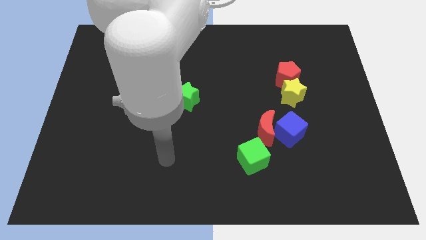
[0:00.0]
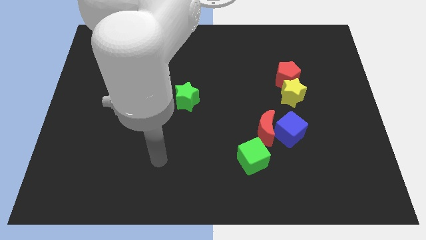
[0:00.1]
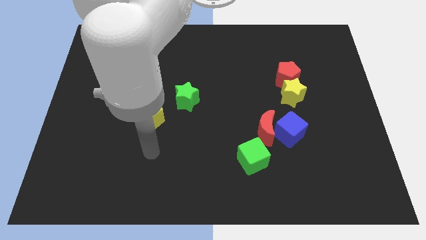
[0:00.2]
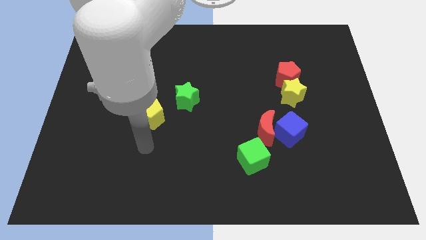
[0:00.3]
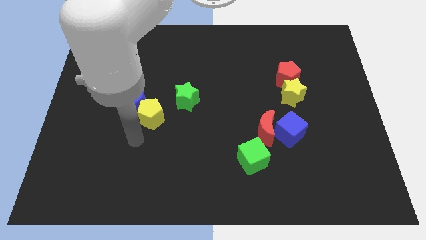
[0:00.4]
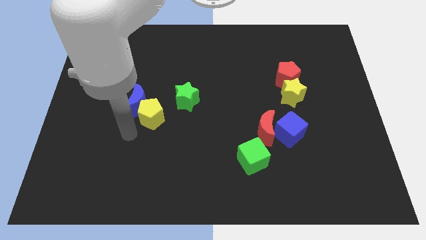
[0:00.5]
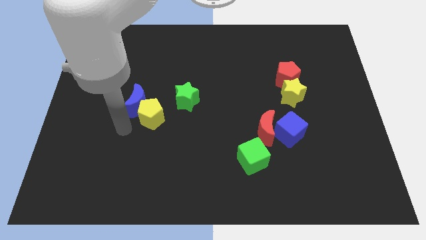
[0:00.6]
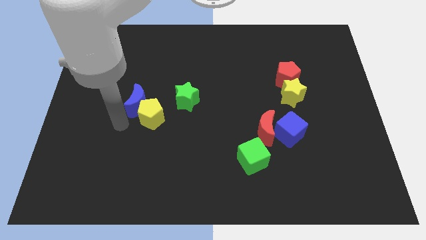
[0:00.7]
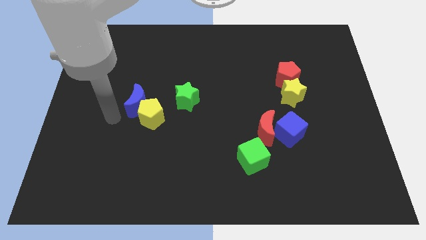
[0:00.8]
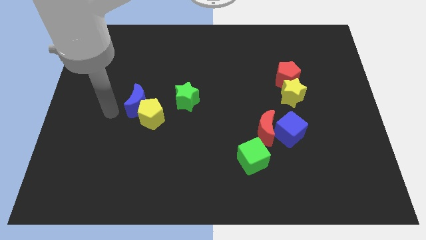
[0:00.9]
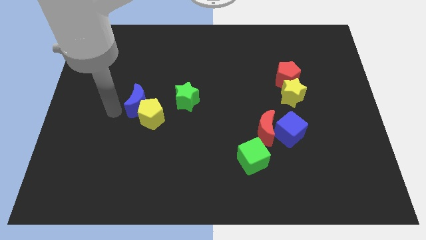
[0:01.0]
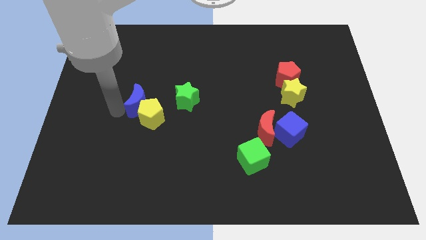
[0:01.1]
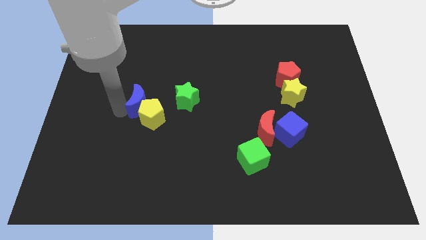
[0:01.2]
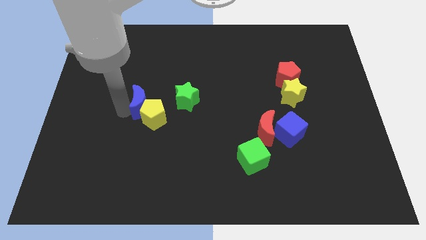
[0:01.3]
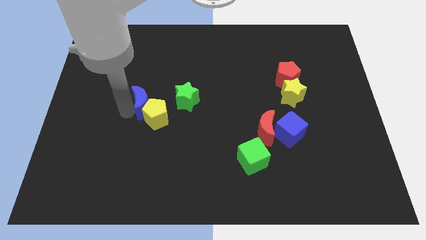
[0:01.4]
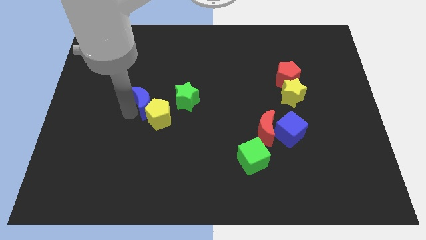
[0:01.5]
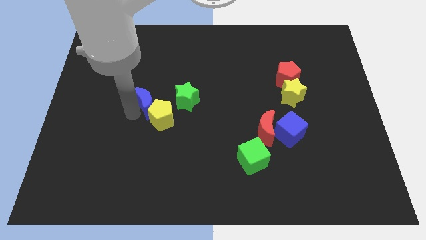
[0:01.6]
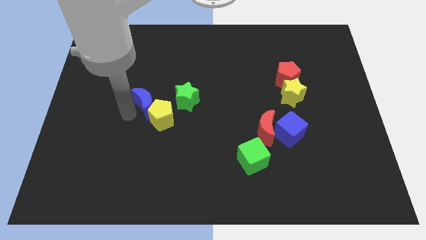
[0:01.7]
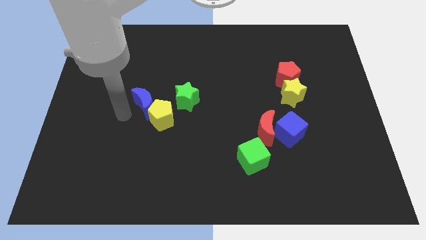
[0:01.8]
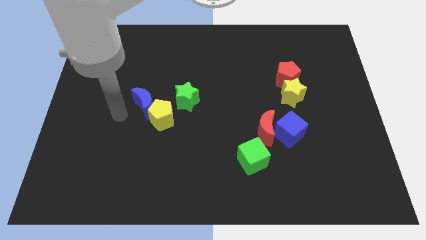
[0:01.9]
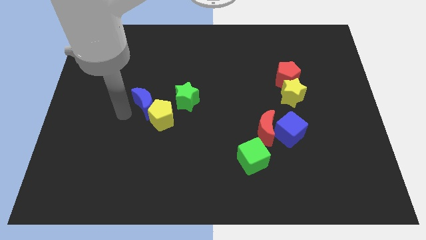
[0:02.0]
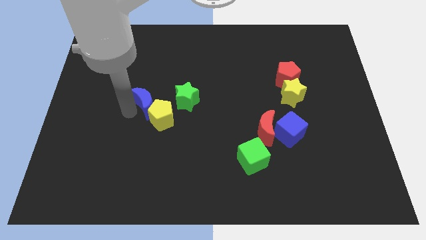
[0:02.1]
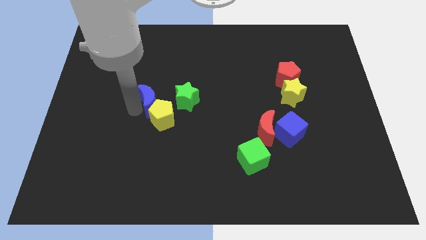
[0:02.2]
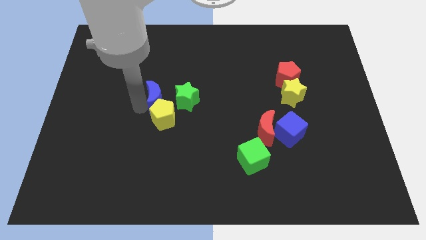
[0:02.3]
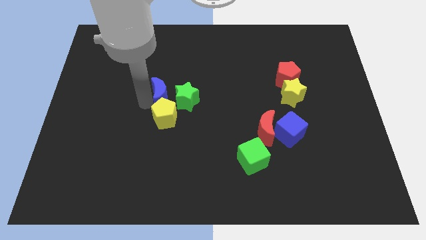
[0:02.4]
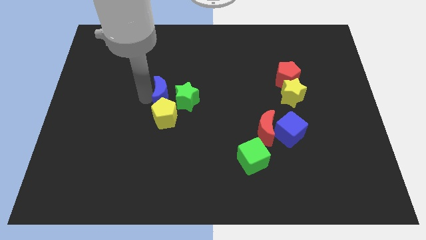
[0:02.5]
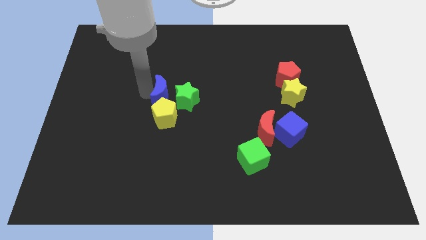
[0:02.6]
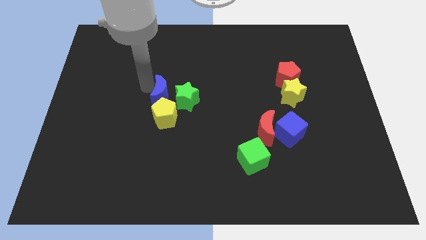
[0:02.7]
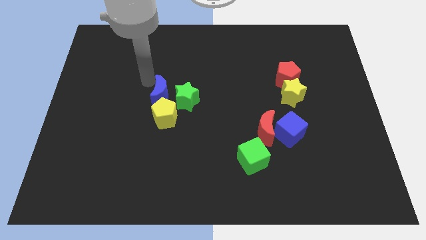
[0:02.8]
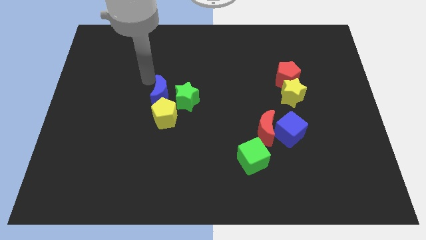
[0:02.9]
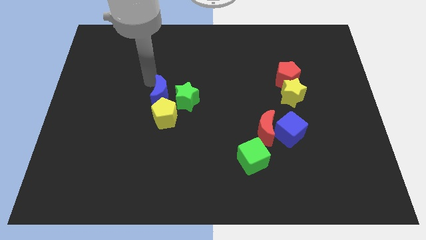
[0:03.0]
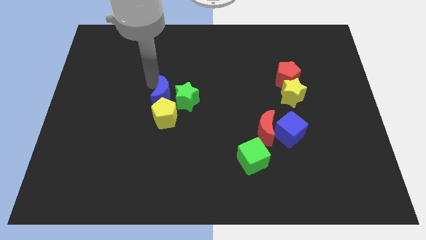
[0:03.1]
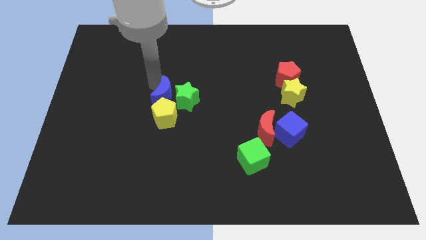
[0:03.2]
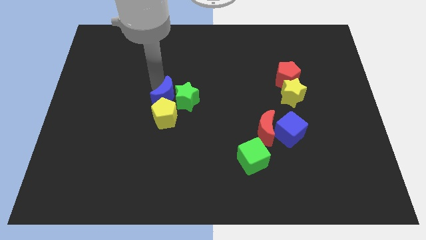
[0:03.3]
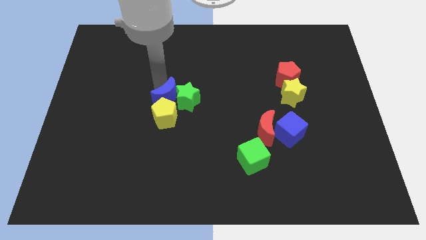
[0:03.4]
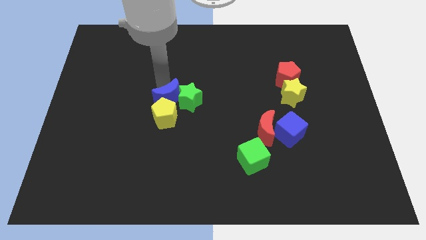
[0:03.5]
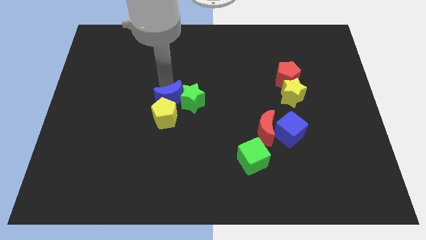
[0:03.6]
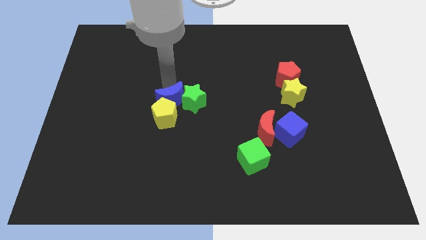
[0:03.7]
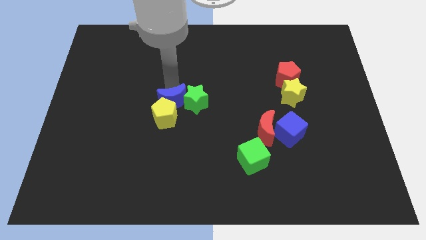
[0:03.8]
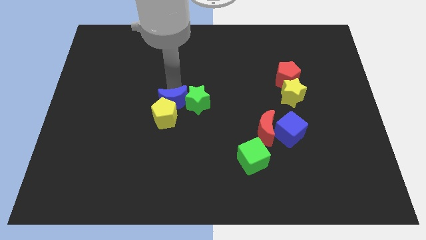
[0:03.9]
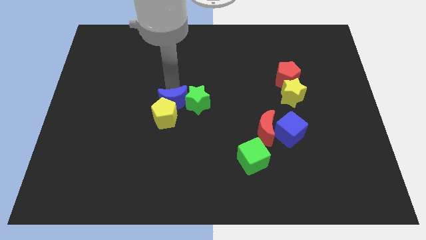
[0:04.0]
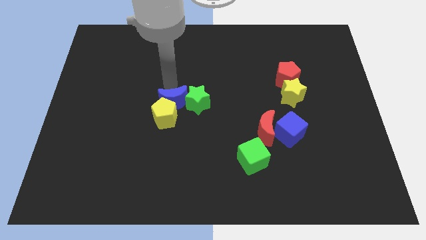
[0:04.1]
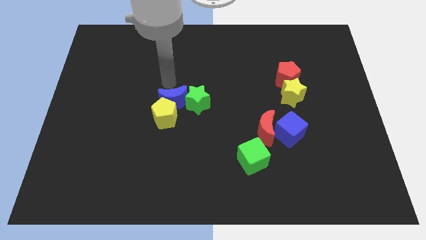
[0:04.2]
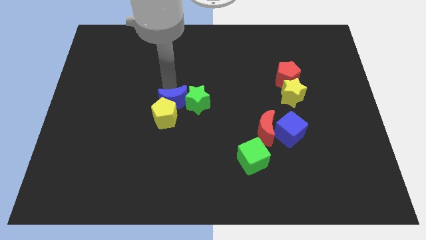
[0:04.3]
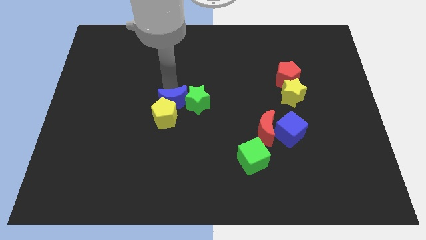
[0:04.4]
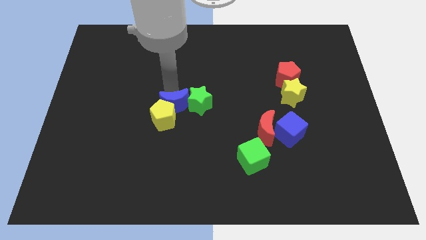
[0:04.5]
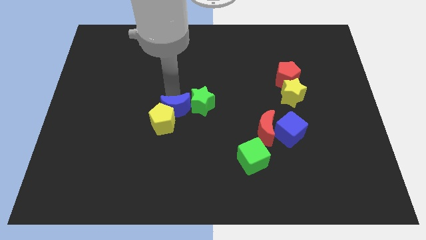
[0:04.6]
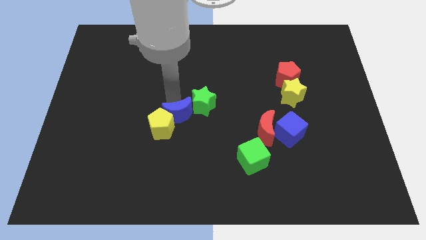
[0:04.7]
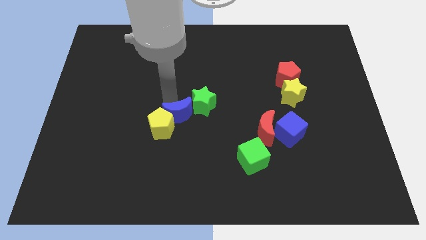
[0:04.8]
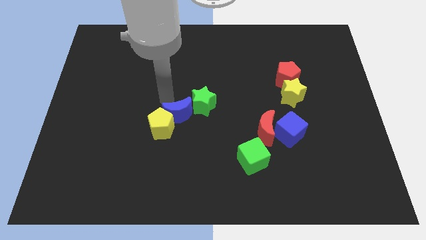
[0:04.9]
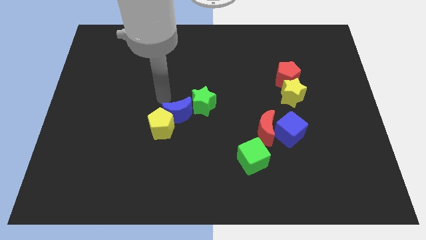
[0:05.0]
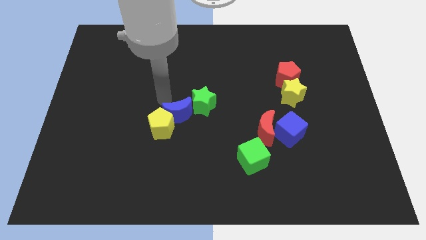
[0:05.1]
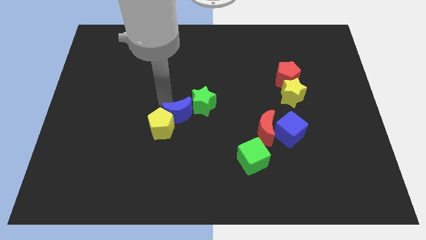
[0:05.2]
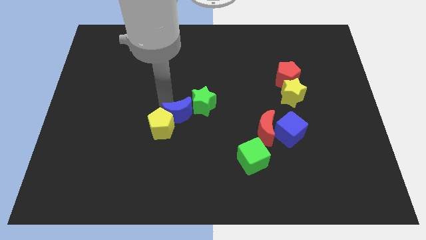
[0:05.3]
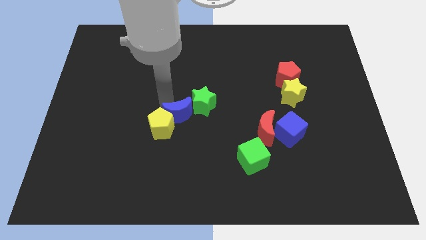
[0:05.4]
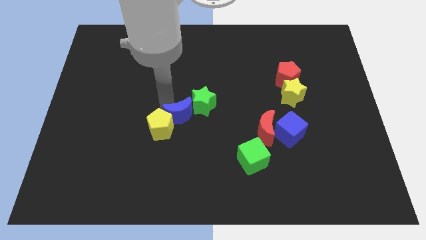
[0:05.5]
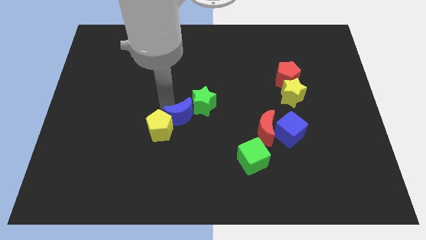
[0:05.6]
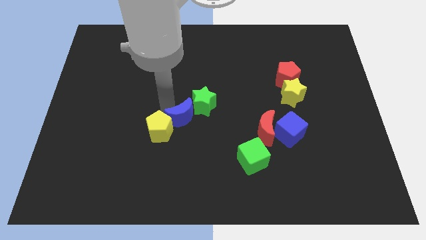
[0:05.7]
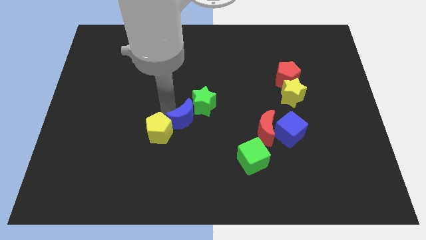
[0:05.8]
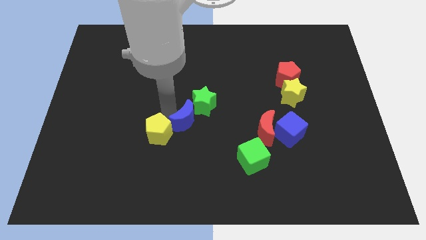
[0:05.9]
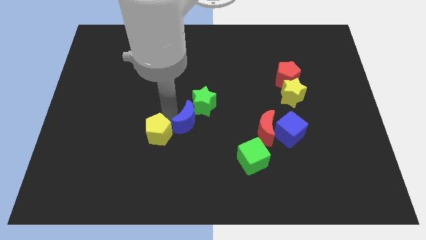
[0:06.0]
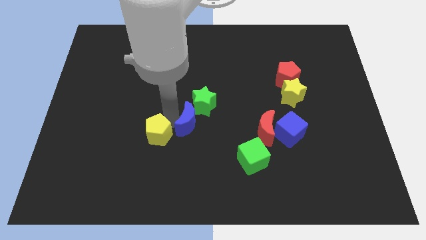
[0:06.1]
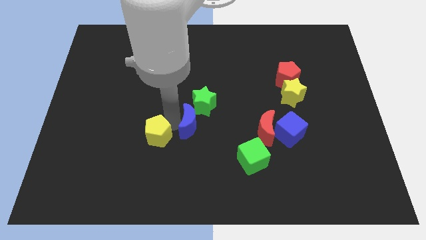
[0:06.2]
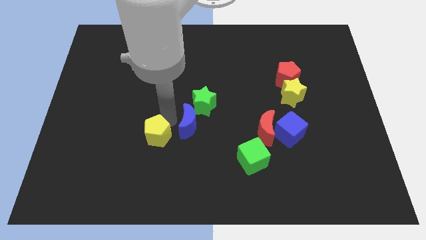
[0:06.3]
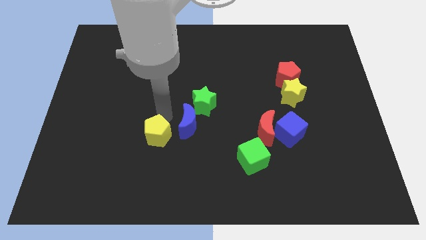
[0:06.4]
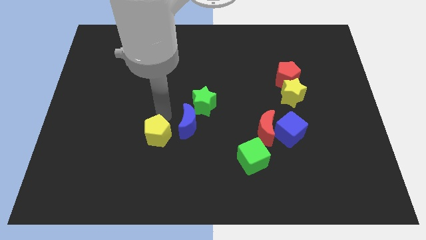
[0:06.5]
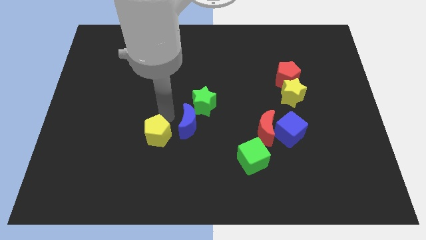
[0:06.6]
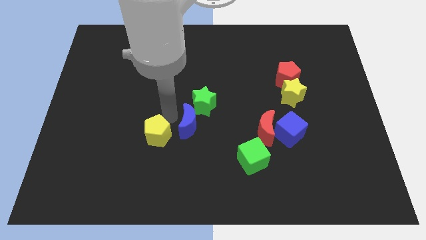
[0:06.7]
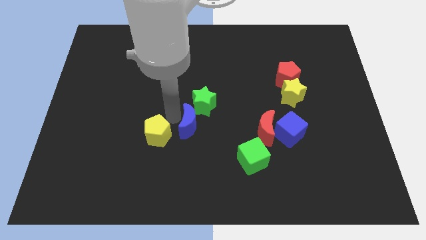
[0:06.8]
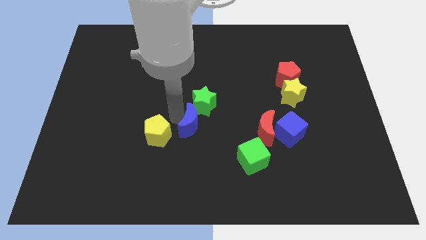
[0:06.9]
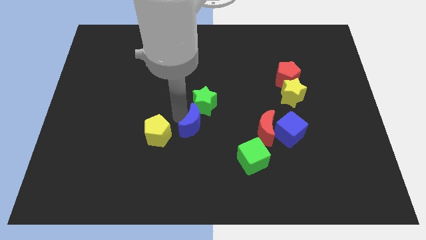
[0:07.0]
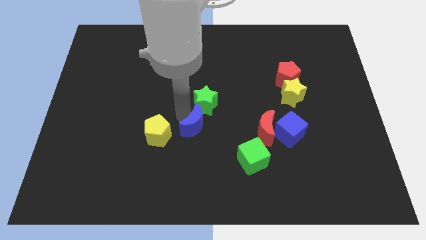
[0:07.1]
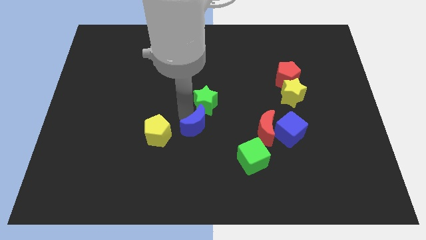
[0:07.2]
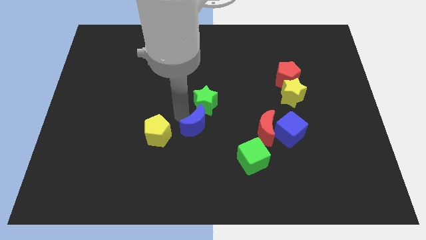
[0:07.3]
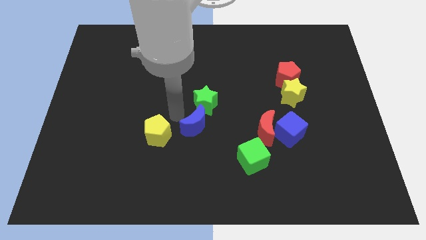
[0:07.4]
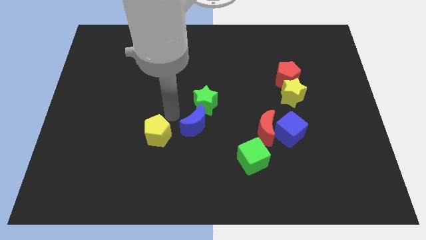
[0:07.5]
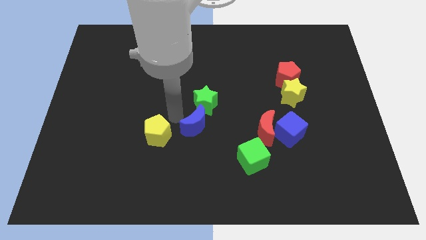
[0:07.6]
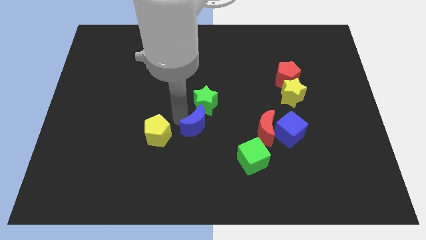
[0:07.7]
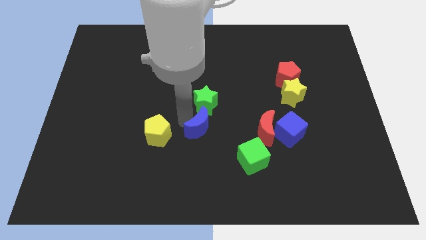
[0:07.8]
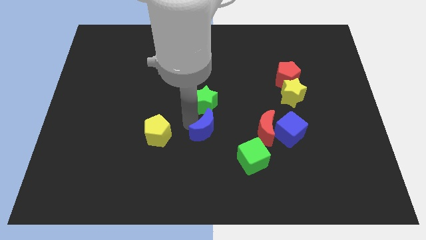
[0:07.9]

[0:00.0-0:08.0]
slide the blue moon diagonally up and to the left of the green cube

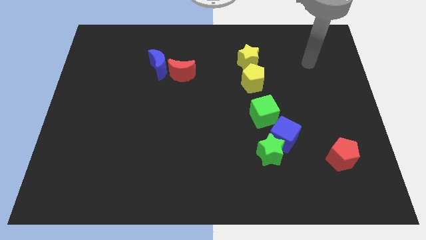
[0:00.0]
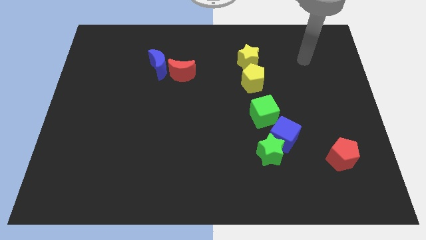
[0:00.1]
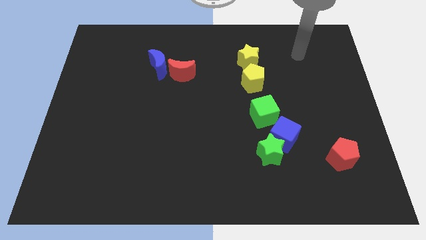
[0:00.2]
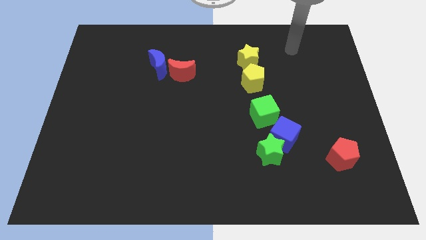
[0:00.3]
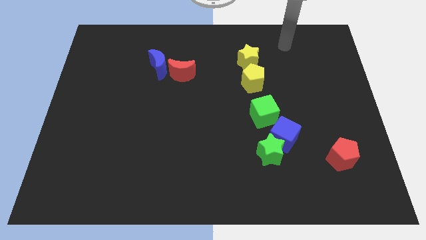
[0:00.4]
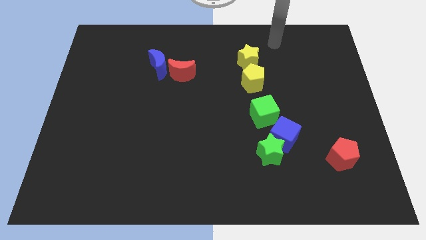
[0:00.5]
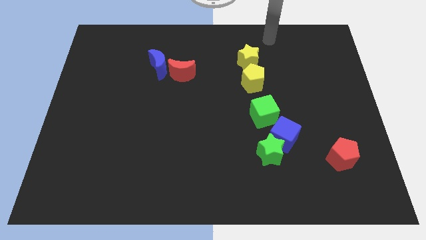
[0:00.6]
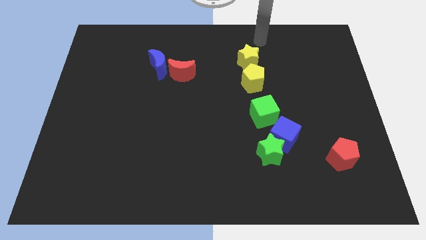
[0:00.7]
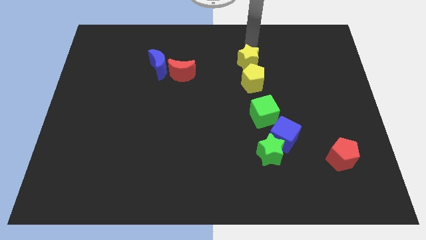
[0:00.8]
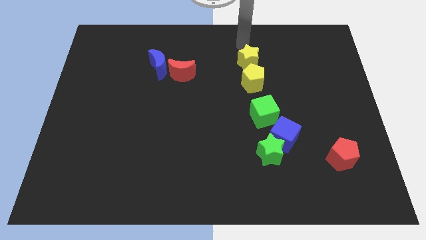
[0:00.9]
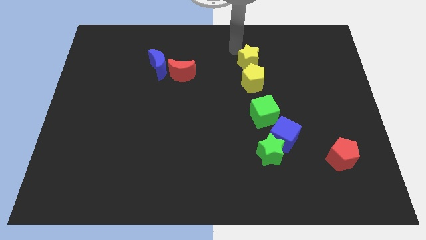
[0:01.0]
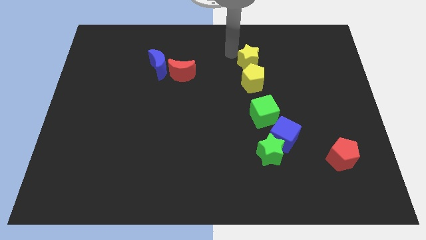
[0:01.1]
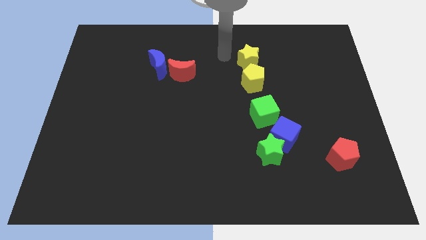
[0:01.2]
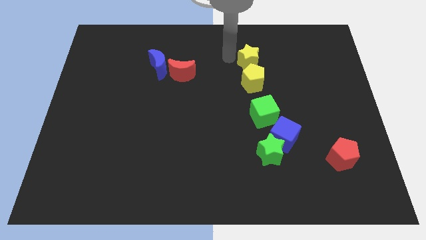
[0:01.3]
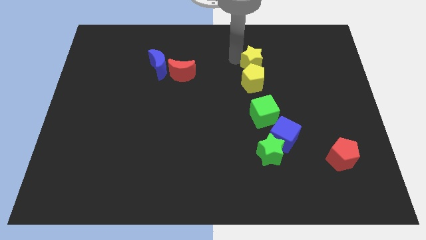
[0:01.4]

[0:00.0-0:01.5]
slide the yellow star to the top right of the yellow pentagon
